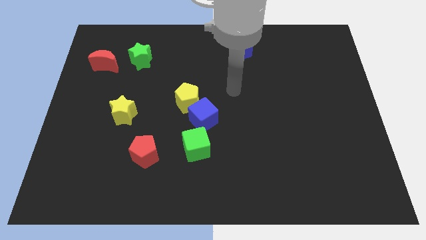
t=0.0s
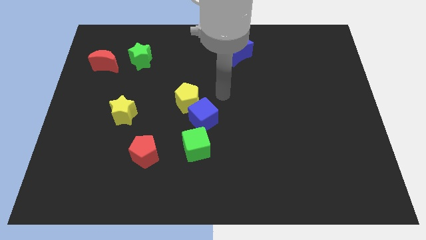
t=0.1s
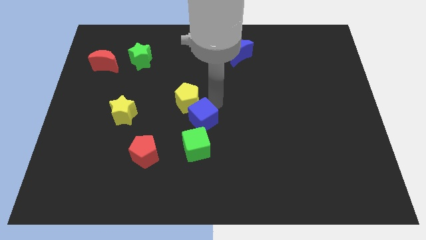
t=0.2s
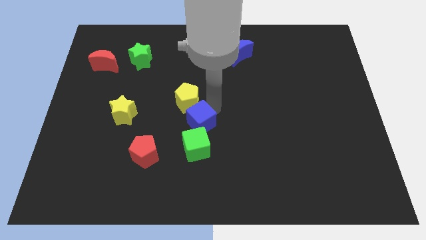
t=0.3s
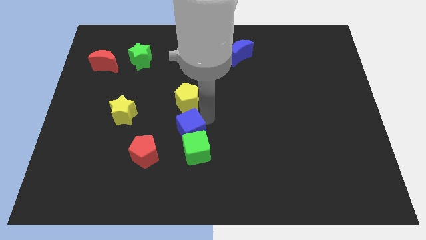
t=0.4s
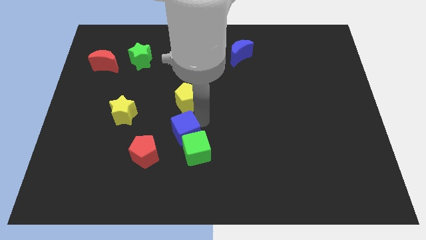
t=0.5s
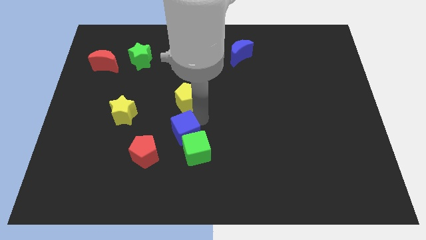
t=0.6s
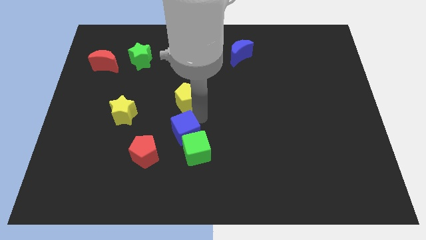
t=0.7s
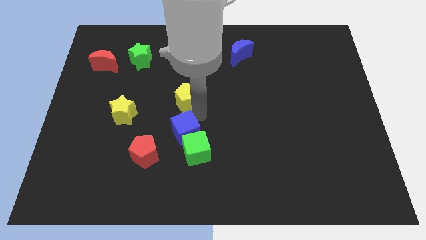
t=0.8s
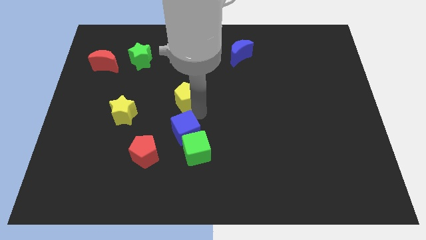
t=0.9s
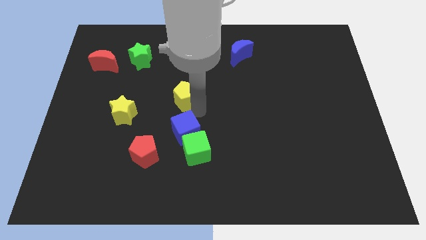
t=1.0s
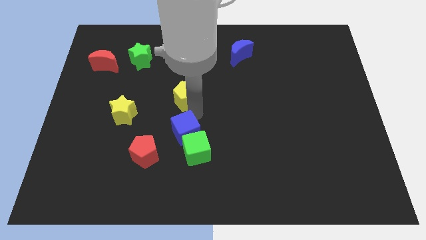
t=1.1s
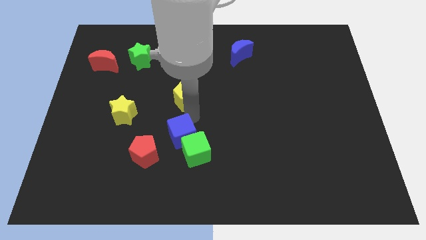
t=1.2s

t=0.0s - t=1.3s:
move the yellow pentagon away from the blue cube

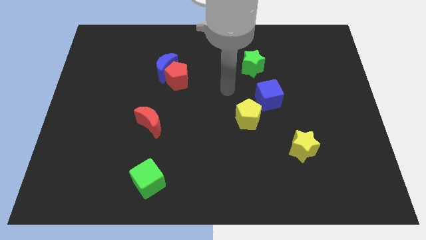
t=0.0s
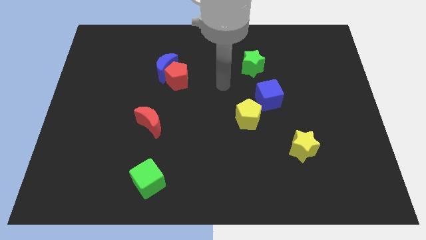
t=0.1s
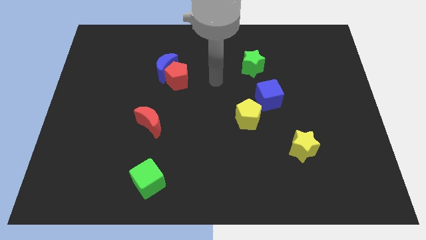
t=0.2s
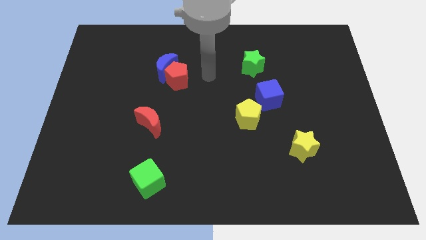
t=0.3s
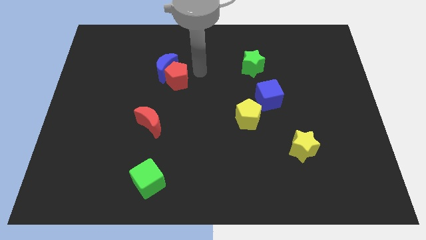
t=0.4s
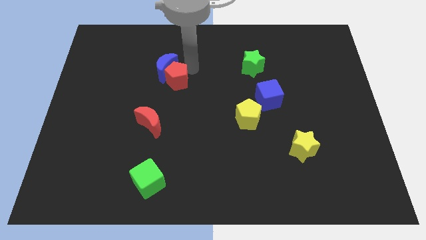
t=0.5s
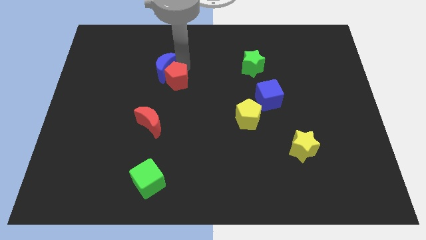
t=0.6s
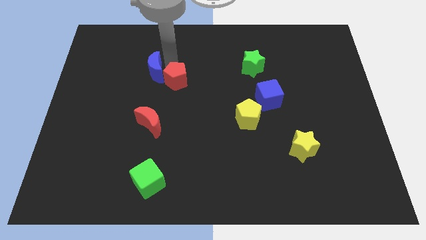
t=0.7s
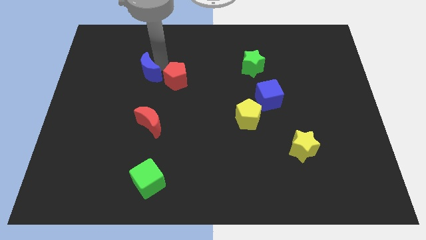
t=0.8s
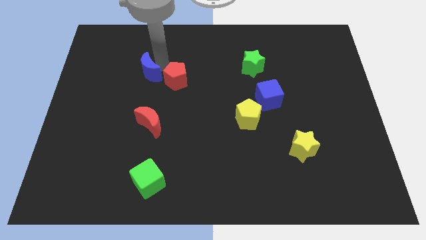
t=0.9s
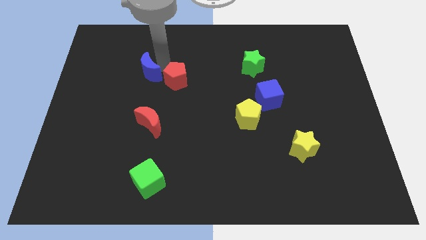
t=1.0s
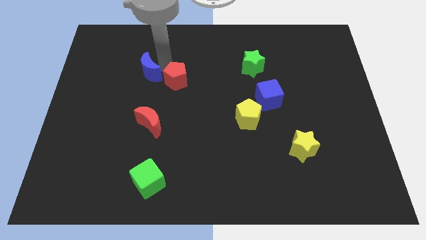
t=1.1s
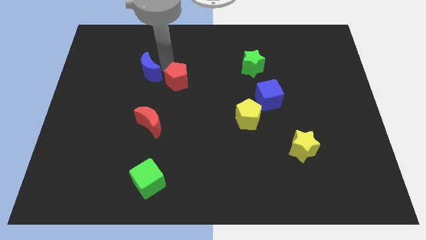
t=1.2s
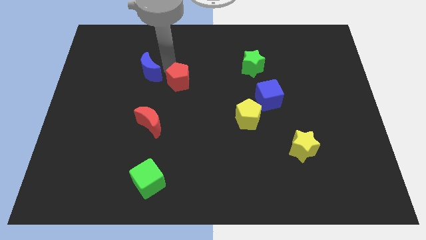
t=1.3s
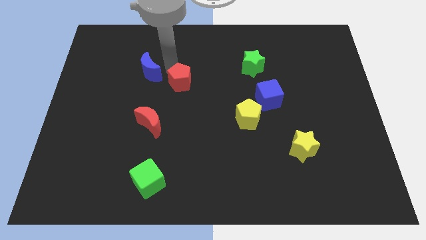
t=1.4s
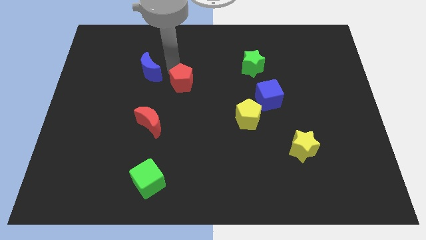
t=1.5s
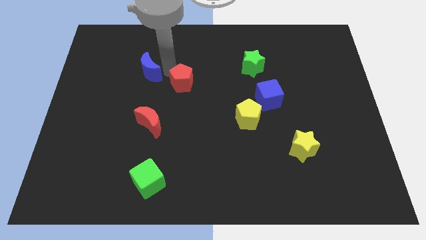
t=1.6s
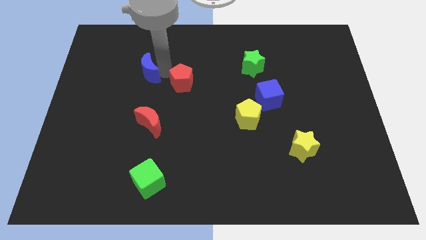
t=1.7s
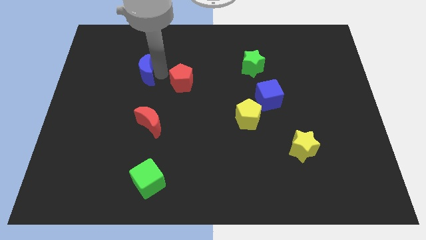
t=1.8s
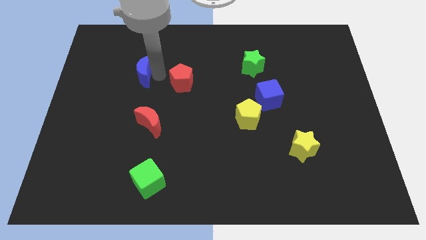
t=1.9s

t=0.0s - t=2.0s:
pull the red pentagon apart from the blue moon

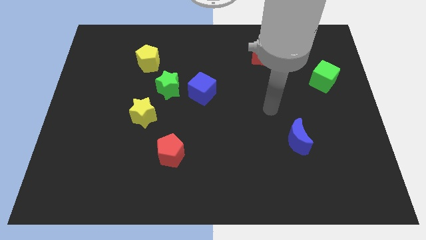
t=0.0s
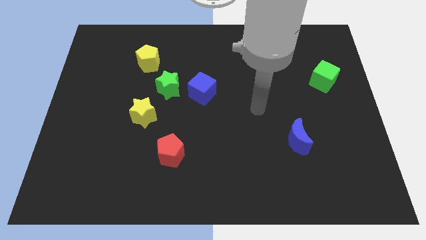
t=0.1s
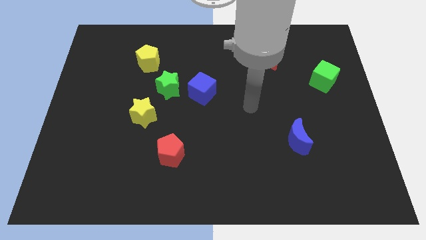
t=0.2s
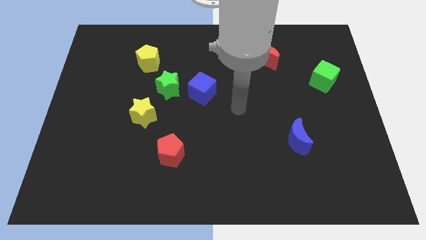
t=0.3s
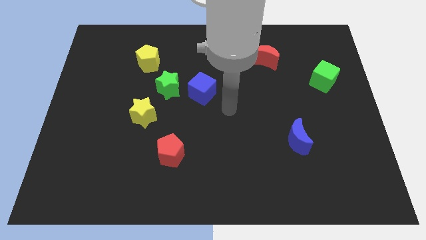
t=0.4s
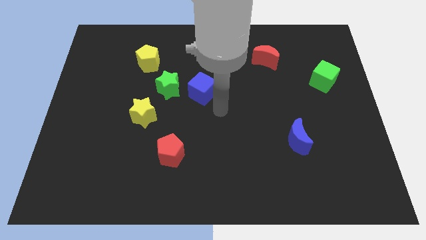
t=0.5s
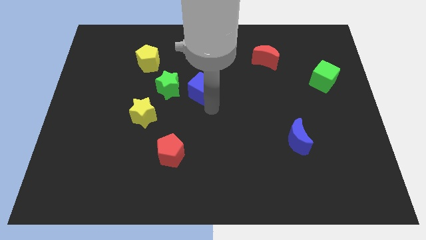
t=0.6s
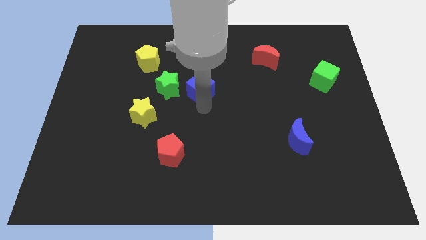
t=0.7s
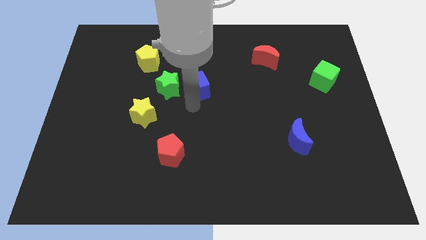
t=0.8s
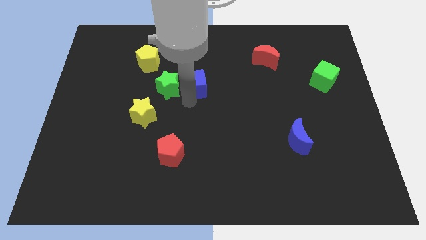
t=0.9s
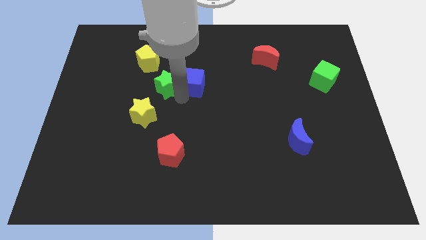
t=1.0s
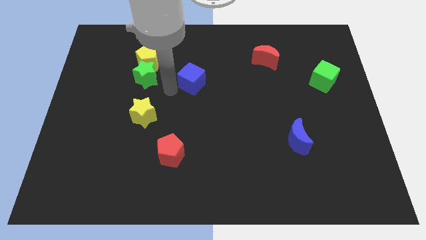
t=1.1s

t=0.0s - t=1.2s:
move the blue cube away from the green star

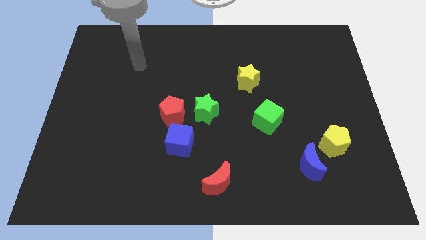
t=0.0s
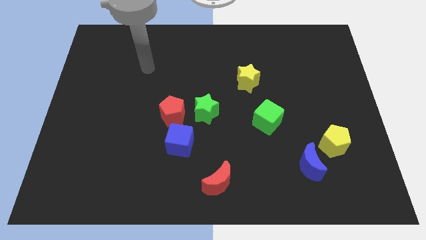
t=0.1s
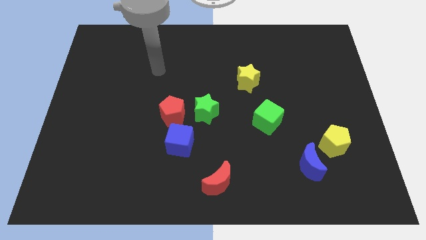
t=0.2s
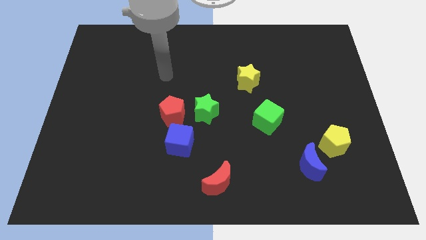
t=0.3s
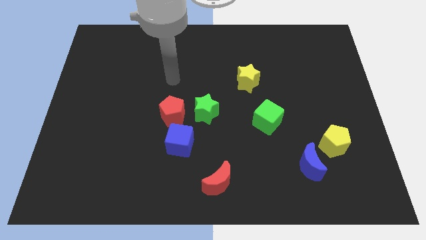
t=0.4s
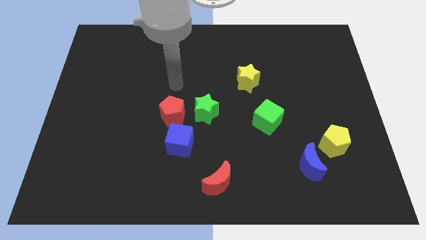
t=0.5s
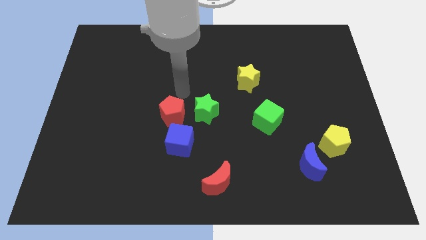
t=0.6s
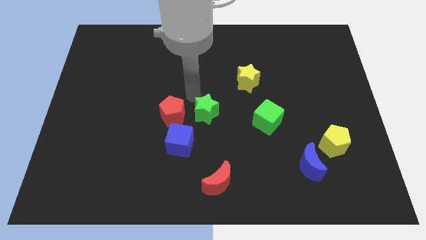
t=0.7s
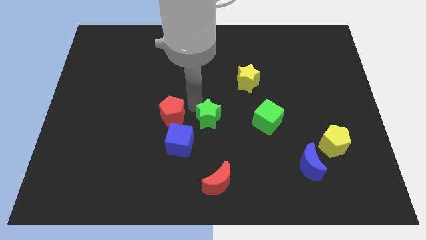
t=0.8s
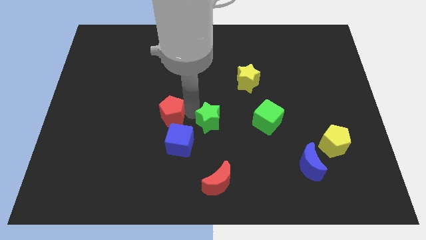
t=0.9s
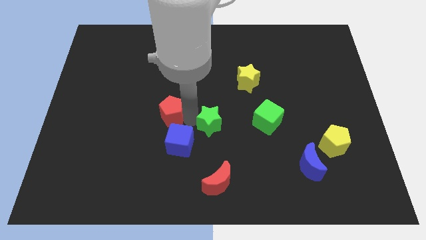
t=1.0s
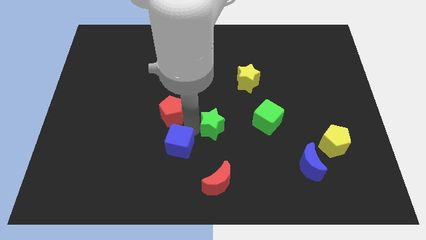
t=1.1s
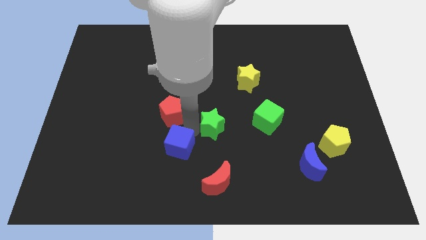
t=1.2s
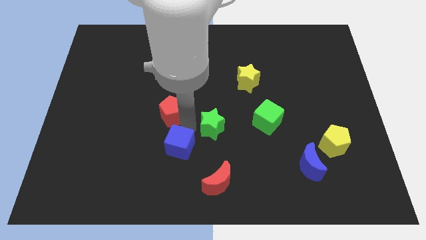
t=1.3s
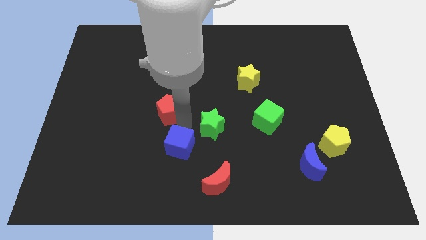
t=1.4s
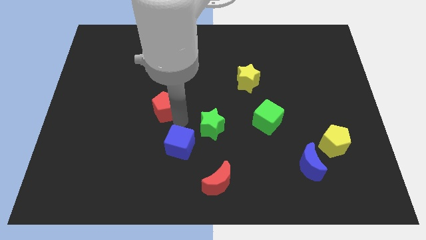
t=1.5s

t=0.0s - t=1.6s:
pull the red pentagon apart from the green star and blue cube

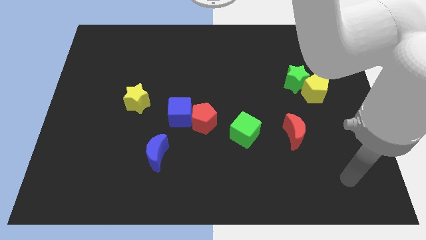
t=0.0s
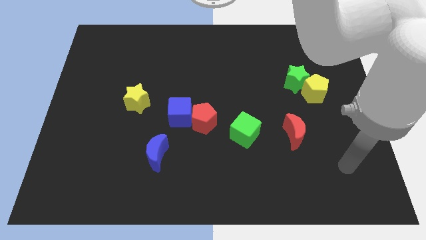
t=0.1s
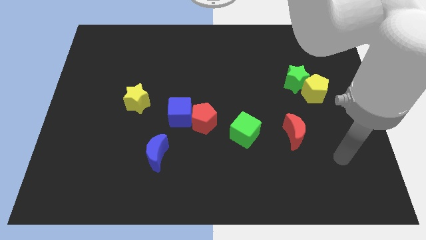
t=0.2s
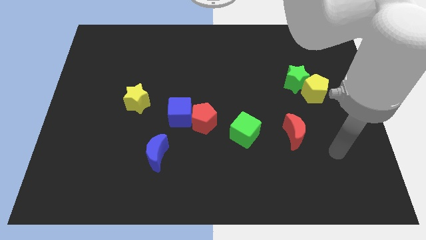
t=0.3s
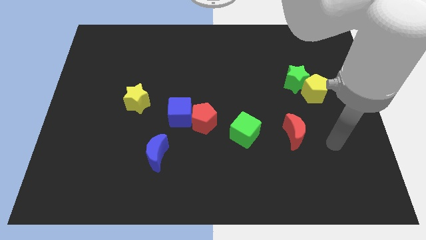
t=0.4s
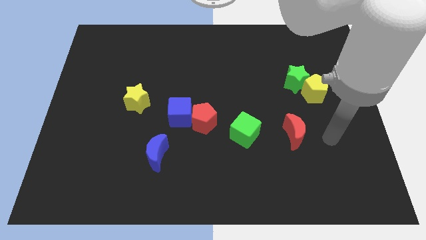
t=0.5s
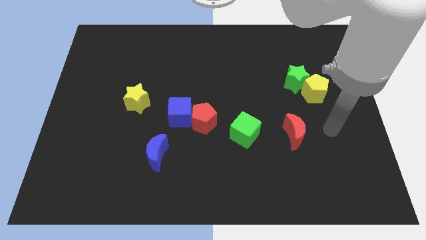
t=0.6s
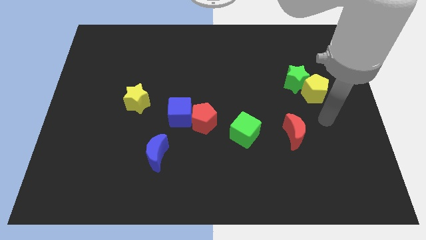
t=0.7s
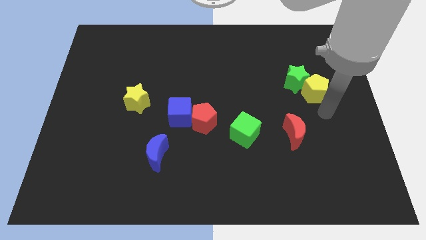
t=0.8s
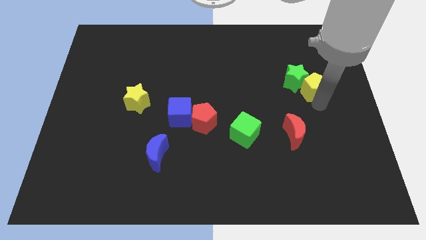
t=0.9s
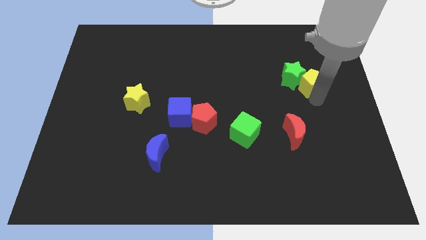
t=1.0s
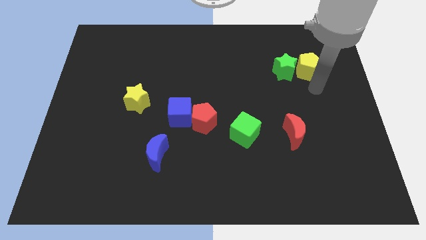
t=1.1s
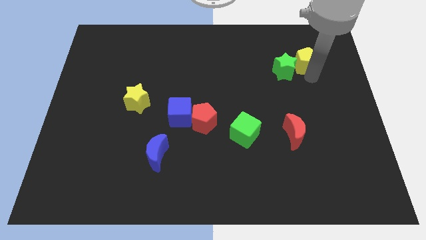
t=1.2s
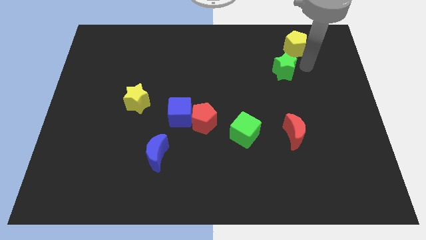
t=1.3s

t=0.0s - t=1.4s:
move the green star away from the yellow pentagon

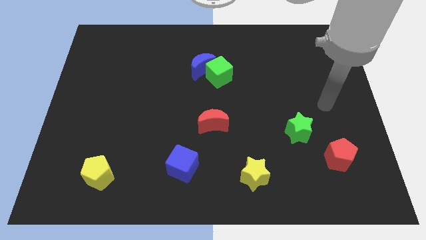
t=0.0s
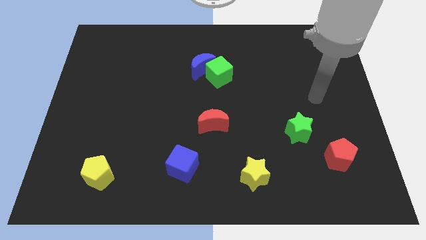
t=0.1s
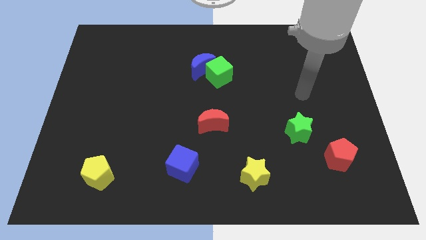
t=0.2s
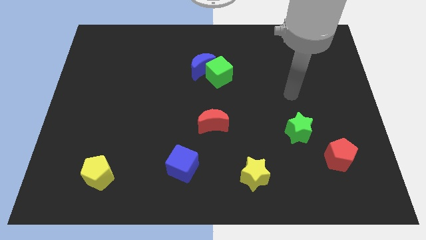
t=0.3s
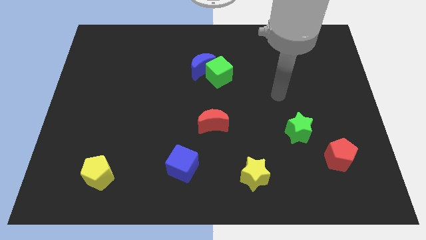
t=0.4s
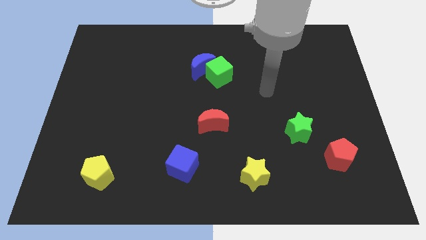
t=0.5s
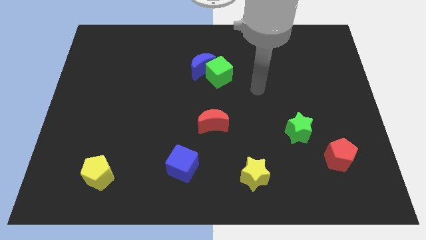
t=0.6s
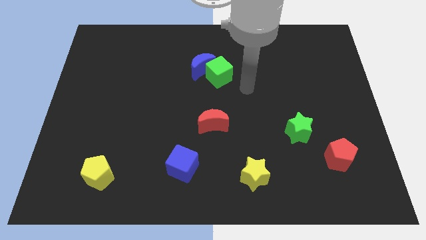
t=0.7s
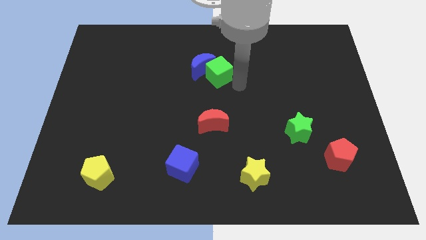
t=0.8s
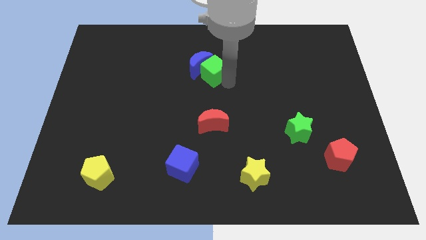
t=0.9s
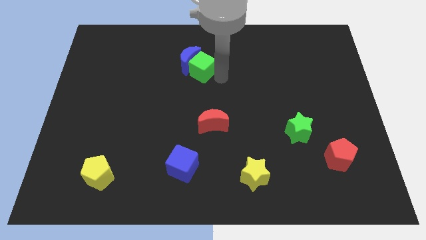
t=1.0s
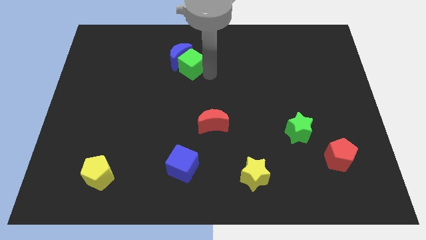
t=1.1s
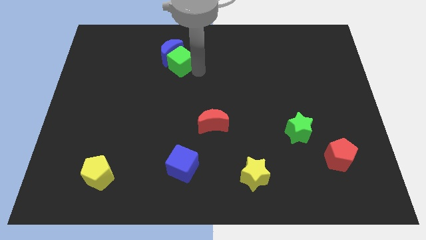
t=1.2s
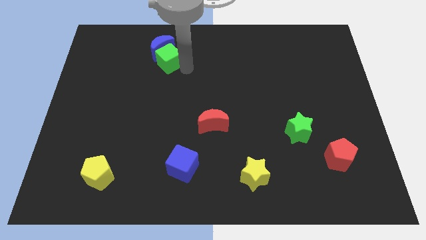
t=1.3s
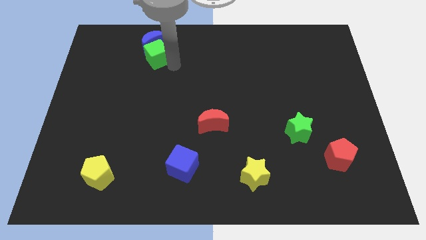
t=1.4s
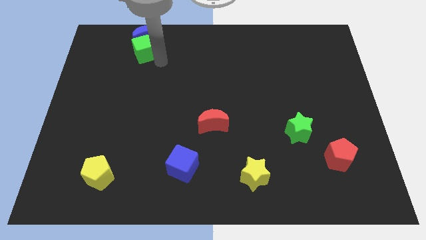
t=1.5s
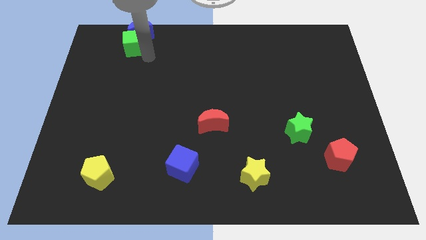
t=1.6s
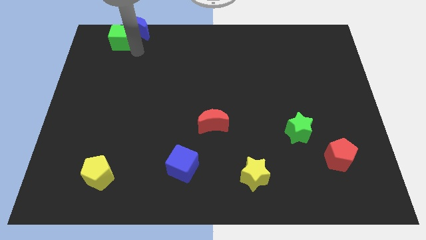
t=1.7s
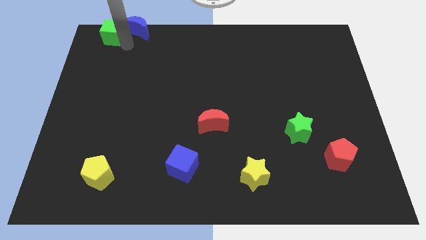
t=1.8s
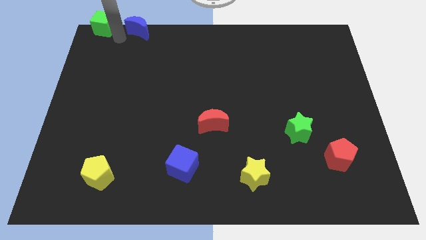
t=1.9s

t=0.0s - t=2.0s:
separate the blue moon from the green cube
